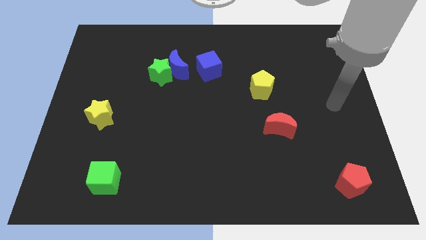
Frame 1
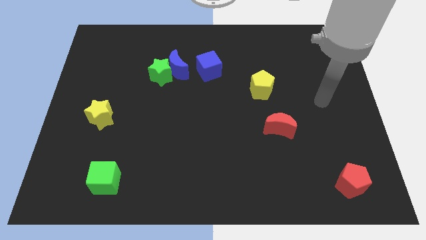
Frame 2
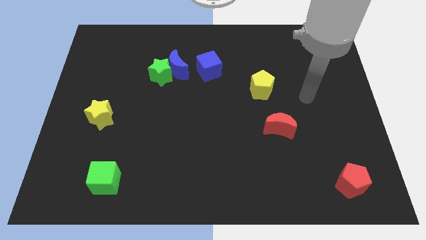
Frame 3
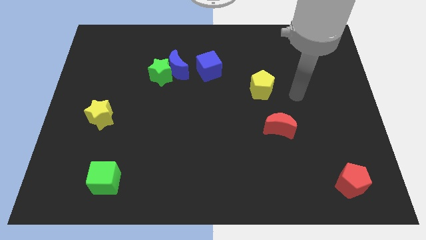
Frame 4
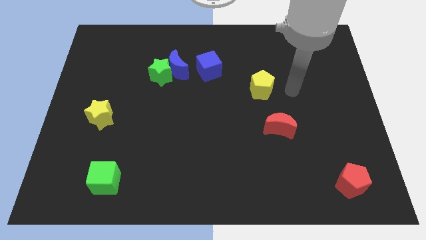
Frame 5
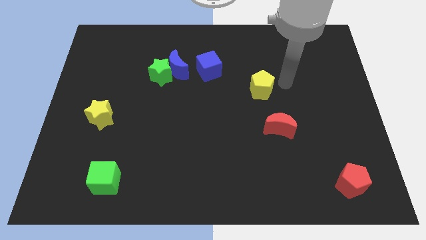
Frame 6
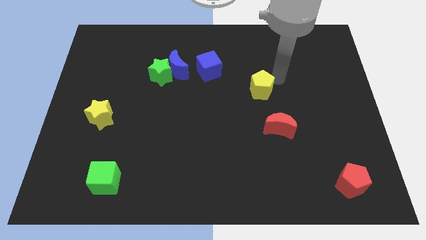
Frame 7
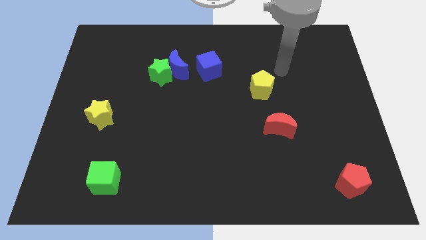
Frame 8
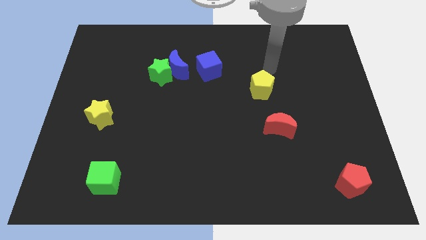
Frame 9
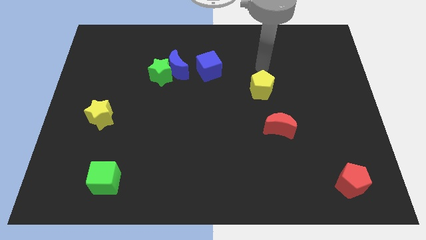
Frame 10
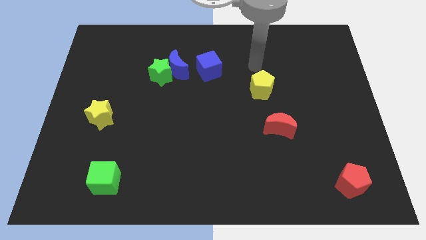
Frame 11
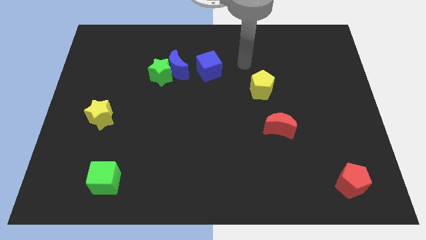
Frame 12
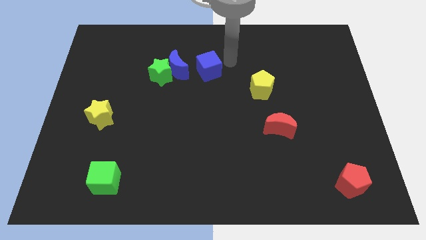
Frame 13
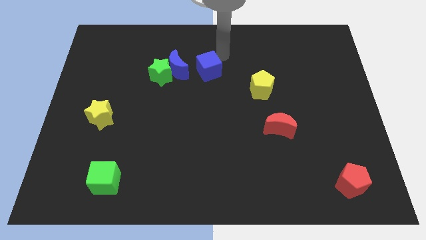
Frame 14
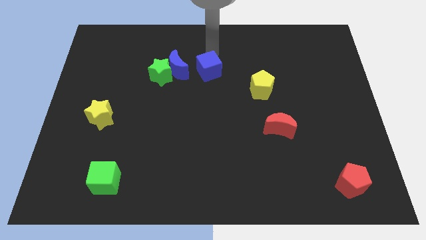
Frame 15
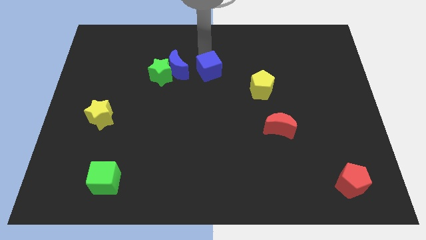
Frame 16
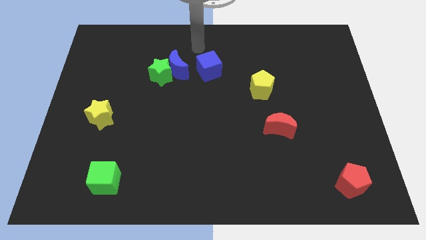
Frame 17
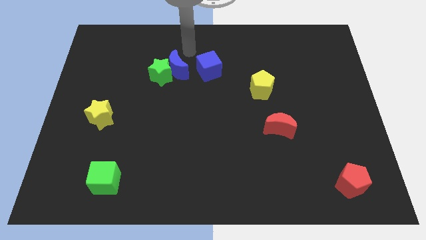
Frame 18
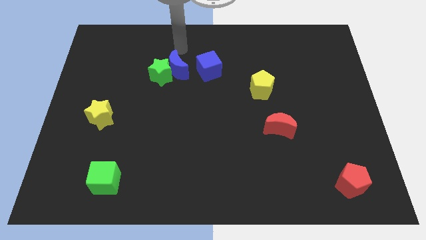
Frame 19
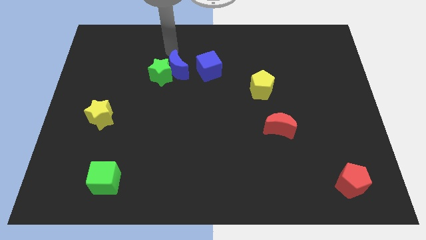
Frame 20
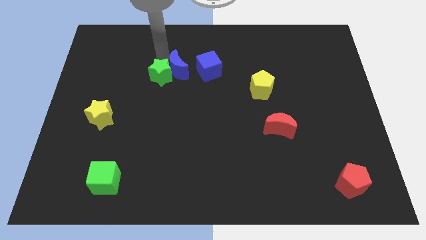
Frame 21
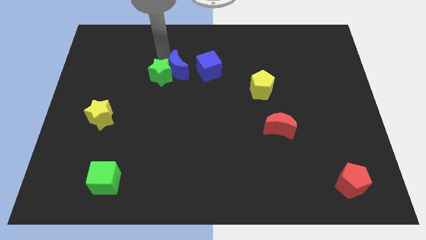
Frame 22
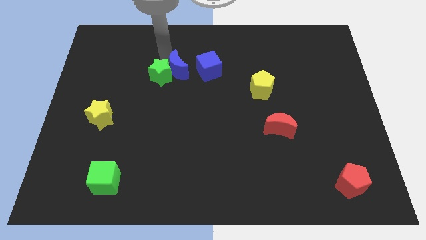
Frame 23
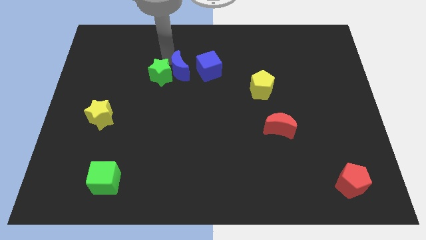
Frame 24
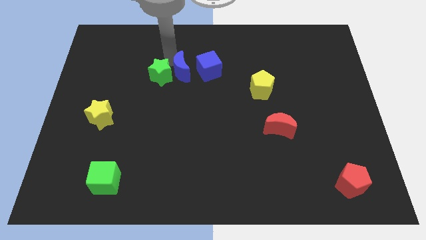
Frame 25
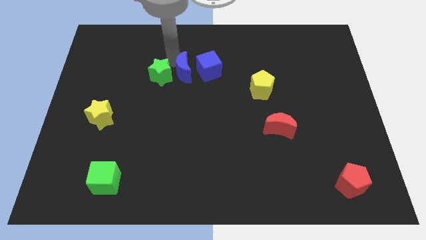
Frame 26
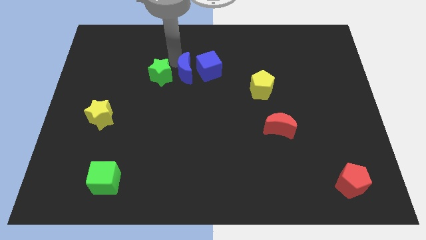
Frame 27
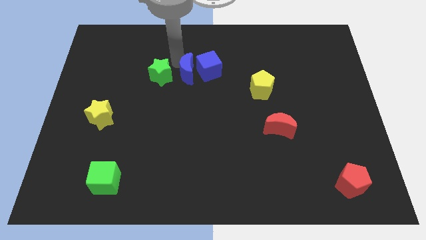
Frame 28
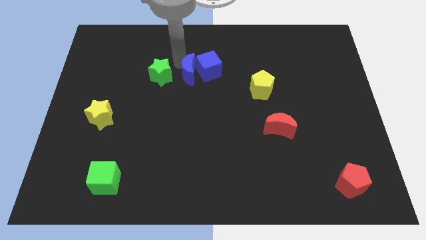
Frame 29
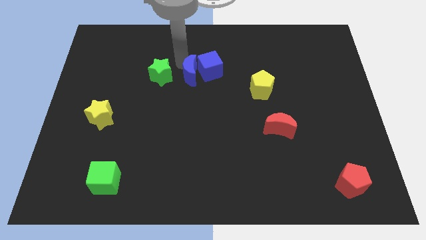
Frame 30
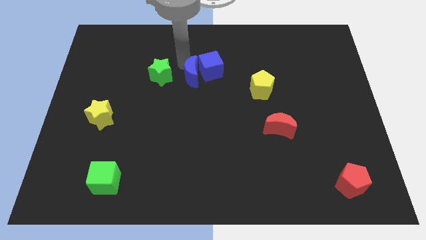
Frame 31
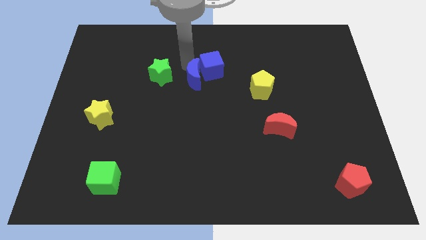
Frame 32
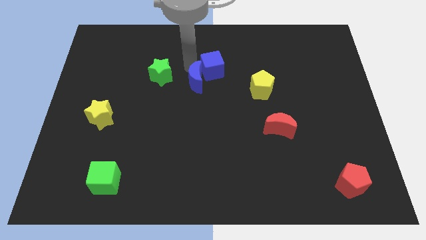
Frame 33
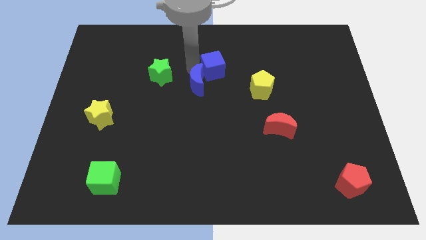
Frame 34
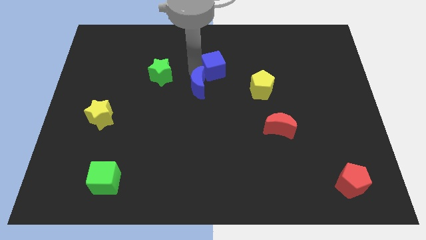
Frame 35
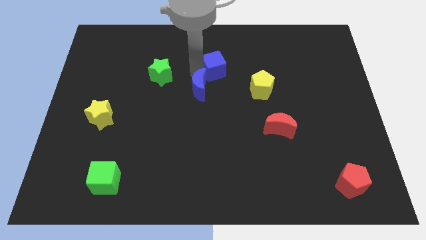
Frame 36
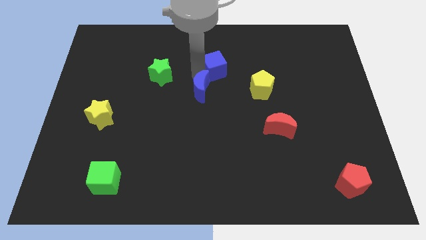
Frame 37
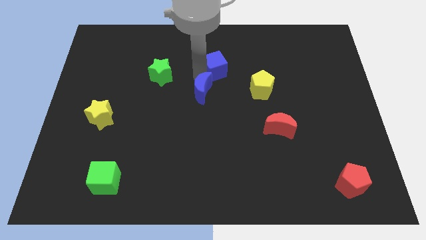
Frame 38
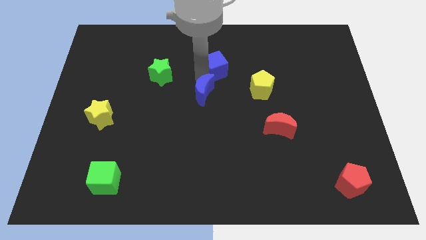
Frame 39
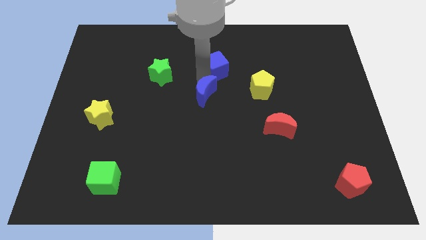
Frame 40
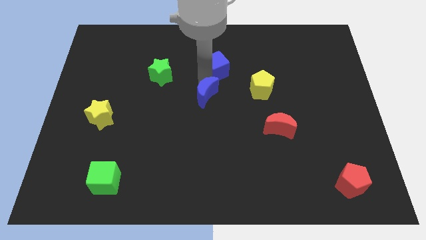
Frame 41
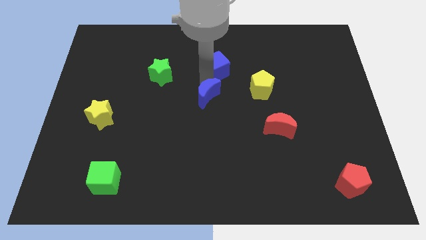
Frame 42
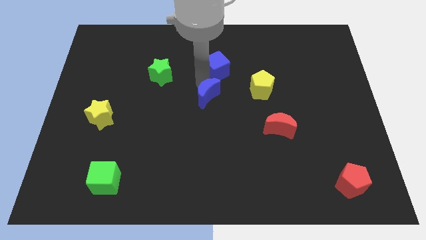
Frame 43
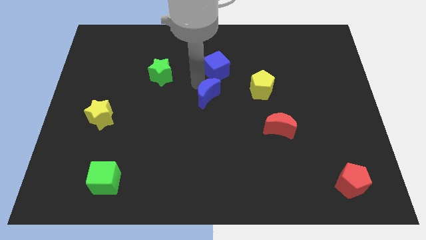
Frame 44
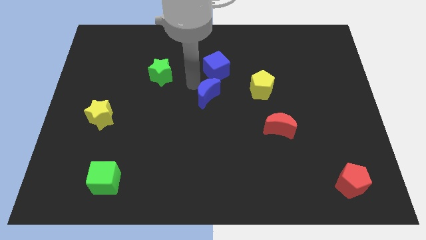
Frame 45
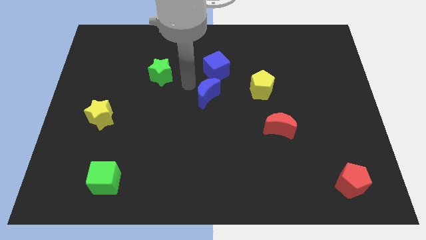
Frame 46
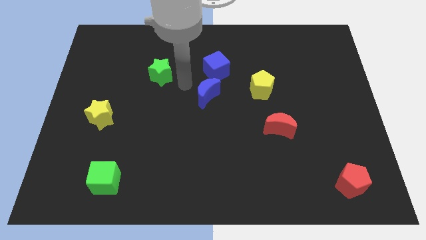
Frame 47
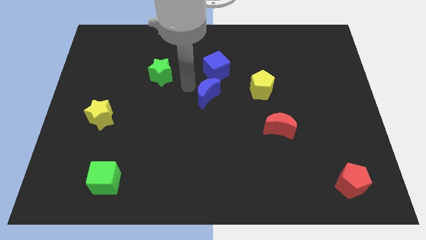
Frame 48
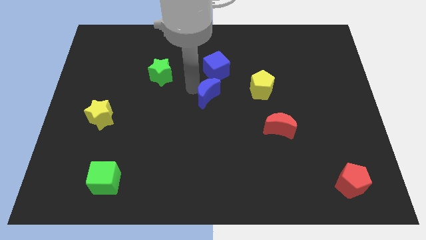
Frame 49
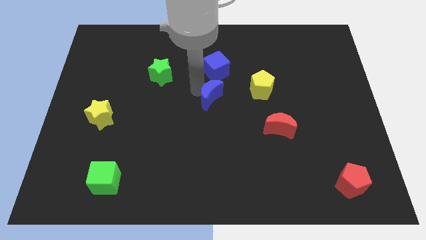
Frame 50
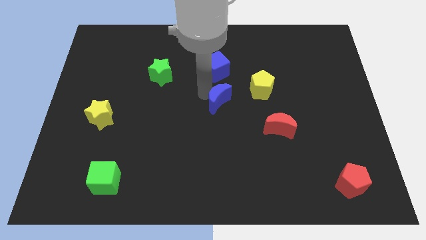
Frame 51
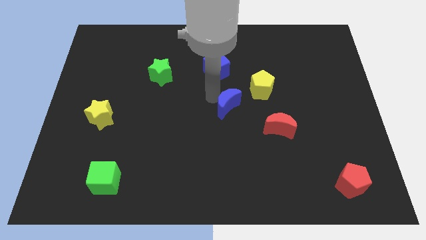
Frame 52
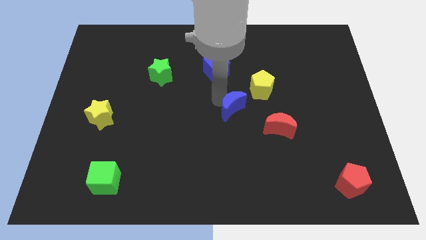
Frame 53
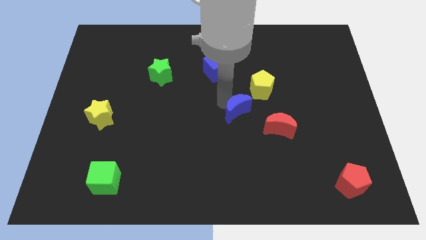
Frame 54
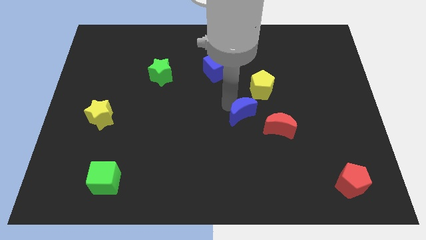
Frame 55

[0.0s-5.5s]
move the blue moon downwards and then right

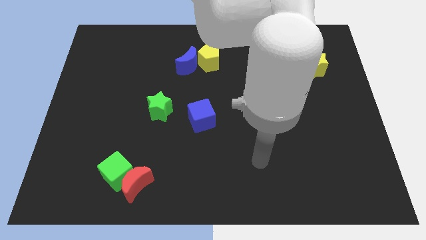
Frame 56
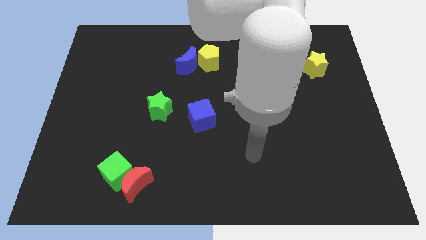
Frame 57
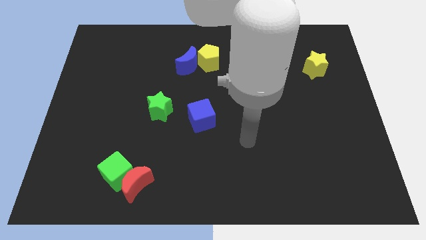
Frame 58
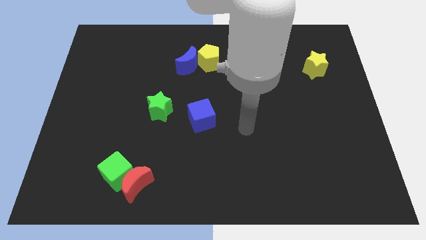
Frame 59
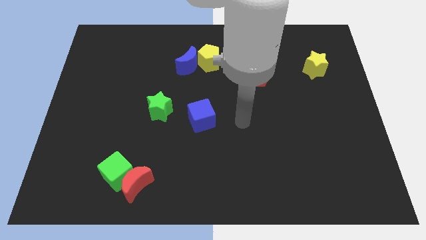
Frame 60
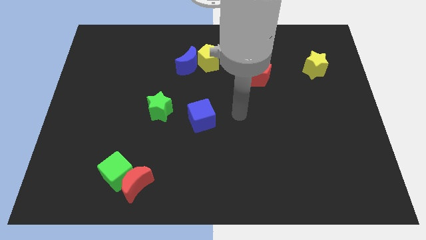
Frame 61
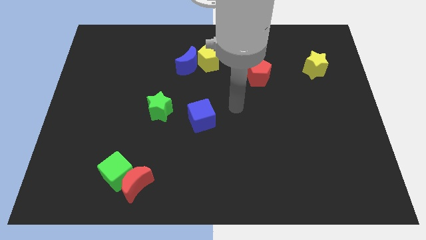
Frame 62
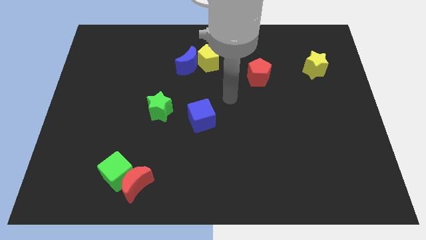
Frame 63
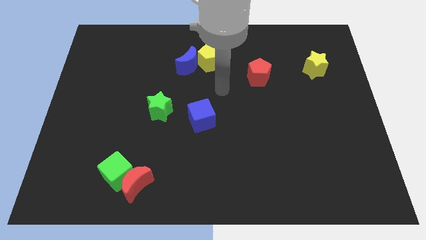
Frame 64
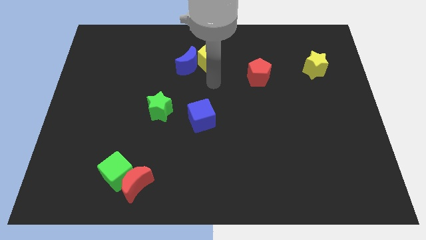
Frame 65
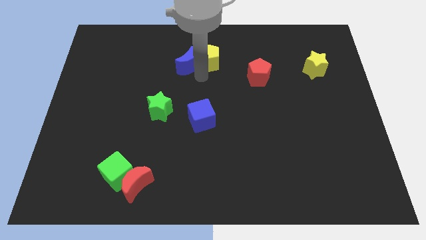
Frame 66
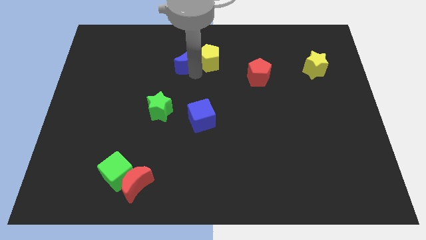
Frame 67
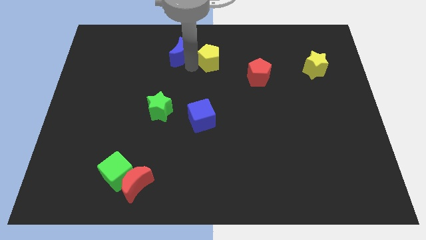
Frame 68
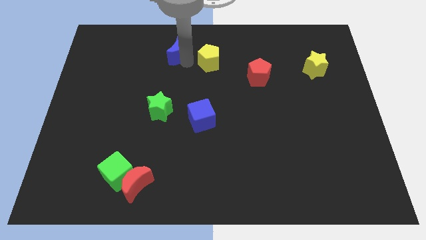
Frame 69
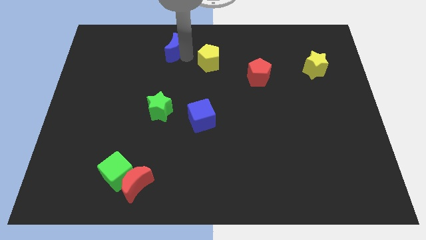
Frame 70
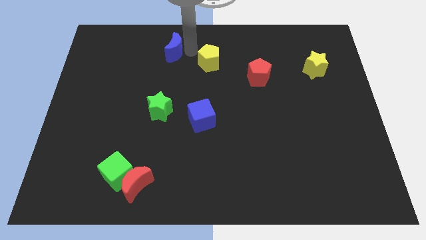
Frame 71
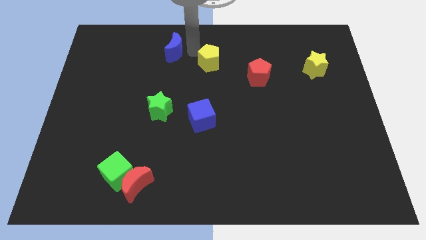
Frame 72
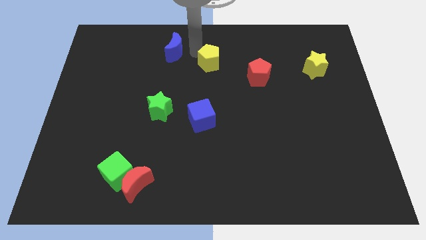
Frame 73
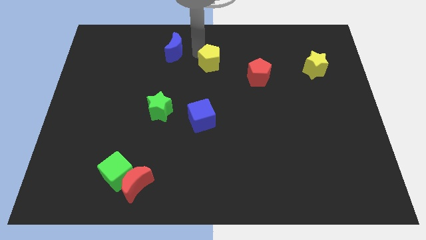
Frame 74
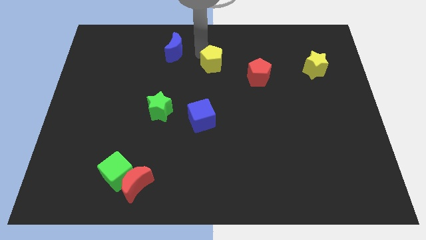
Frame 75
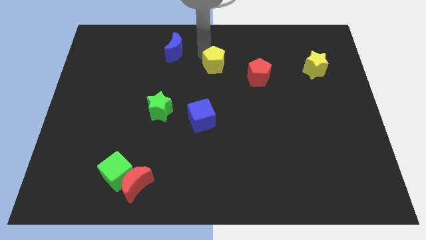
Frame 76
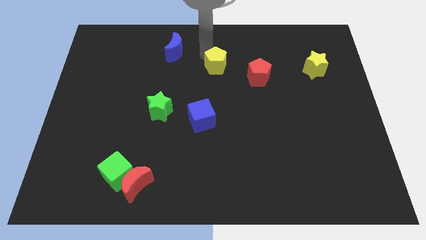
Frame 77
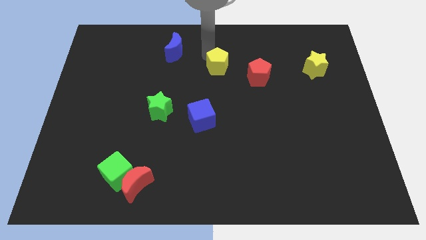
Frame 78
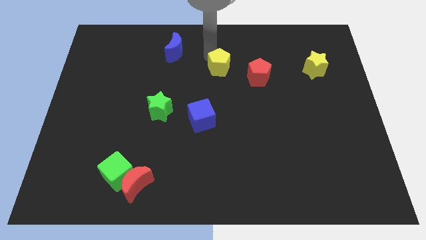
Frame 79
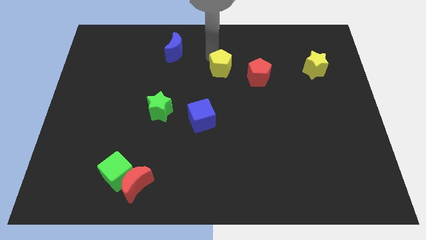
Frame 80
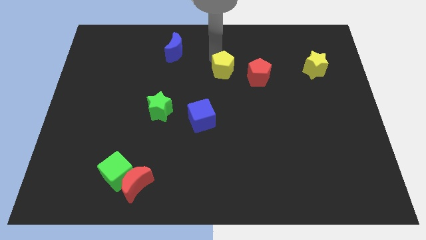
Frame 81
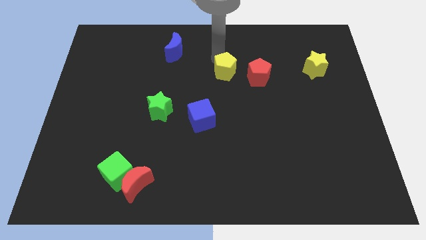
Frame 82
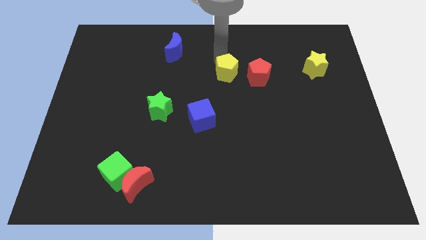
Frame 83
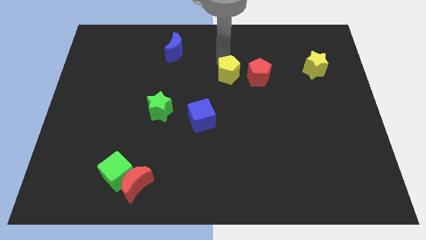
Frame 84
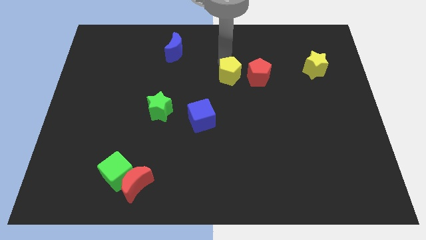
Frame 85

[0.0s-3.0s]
slightly slide the yellow pentagon downwards and right
